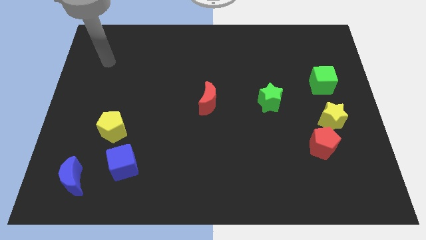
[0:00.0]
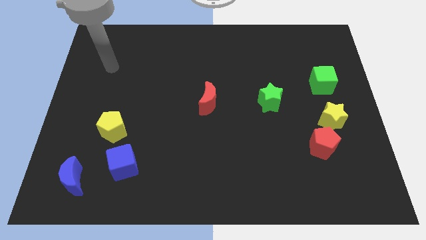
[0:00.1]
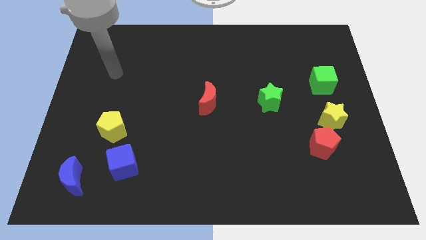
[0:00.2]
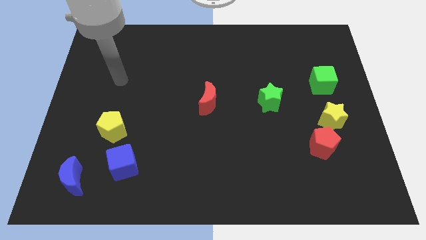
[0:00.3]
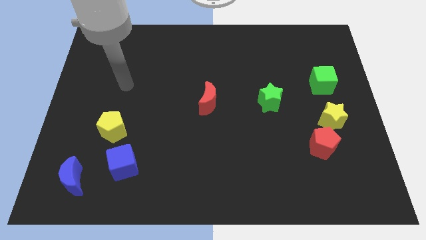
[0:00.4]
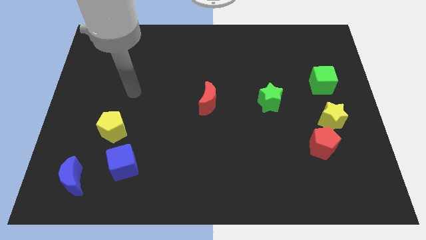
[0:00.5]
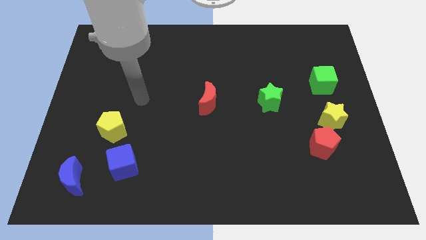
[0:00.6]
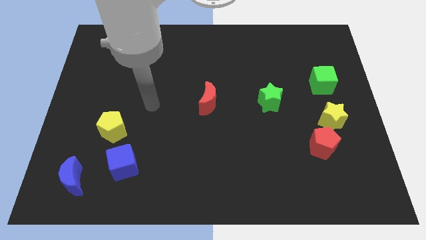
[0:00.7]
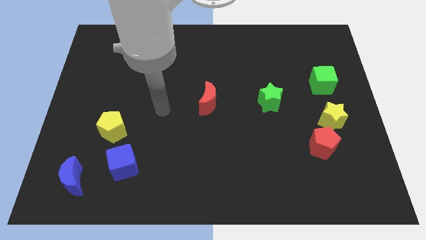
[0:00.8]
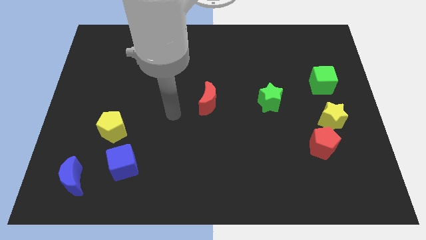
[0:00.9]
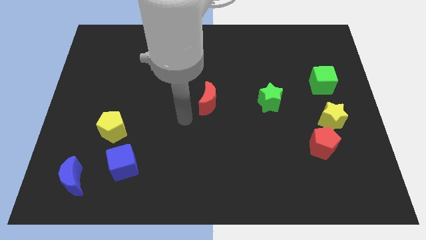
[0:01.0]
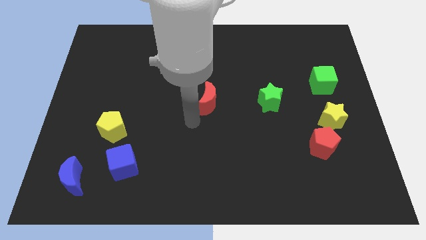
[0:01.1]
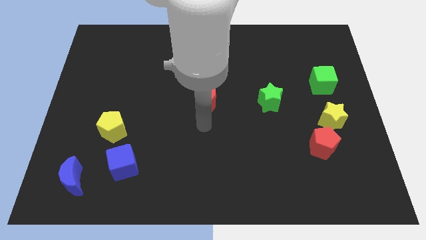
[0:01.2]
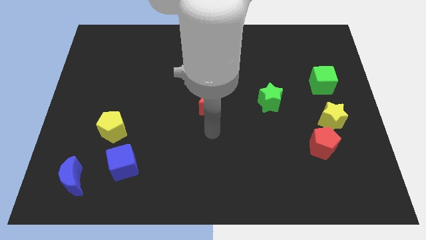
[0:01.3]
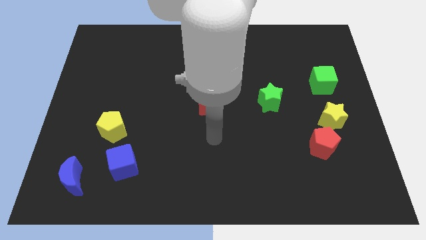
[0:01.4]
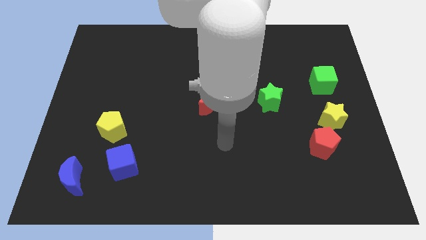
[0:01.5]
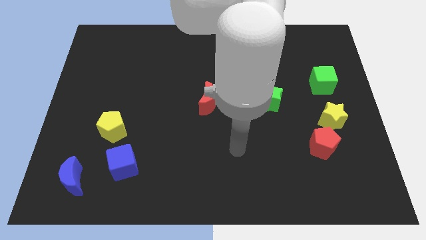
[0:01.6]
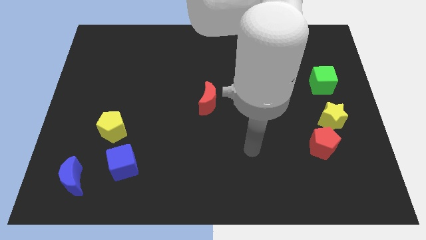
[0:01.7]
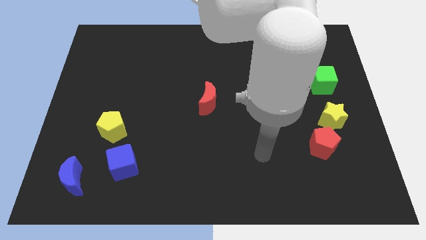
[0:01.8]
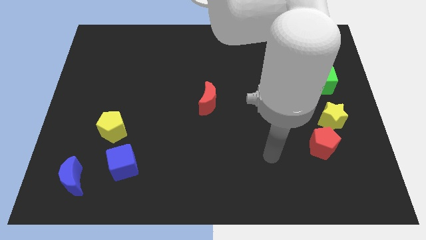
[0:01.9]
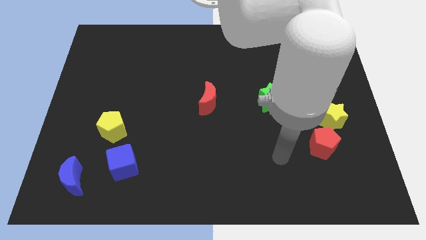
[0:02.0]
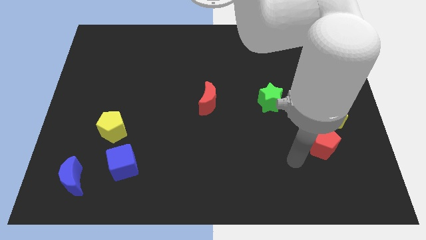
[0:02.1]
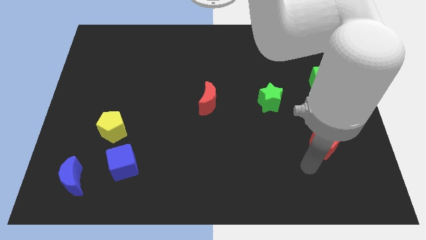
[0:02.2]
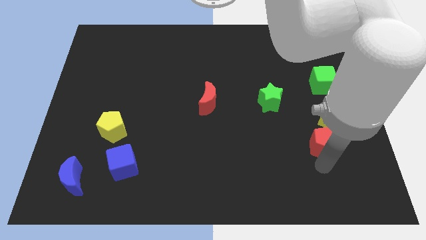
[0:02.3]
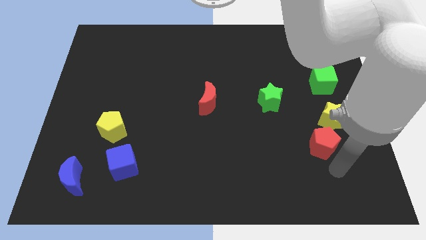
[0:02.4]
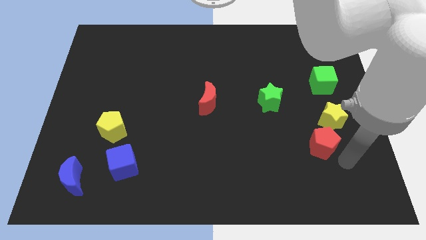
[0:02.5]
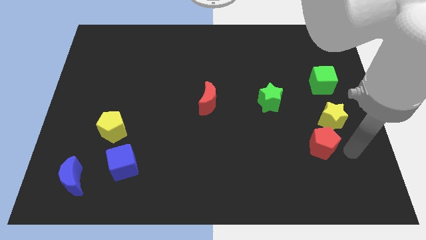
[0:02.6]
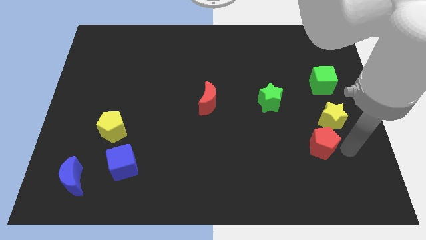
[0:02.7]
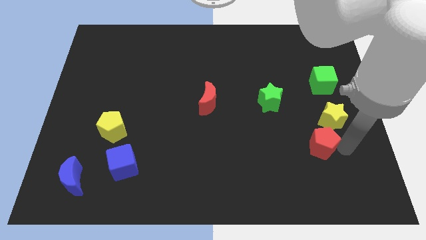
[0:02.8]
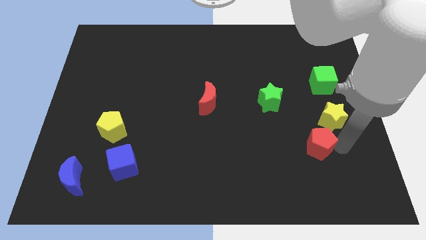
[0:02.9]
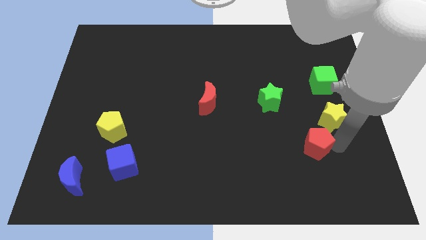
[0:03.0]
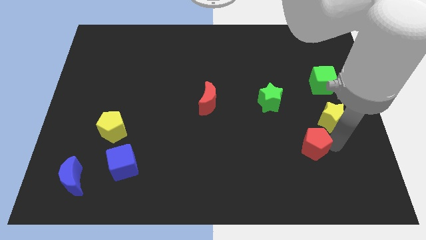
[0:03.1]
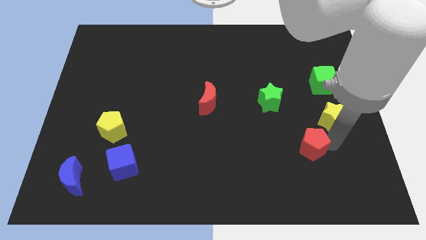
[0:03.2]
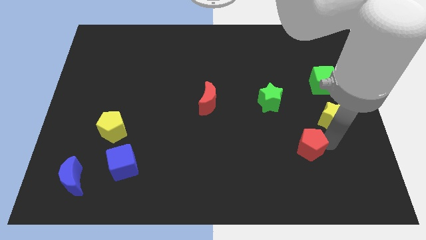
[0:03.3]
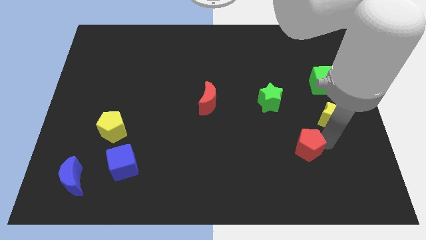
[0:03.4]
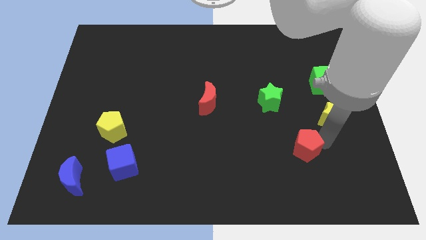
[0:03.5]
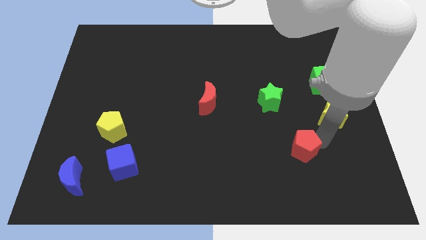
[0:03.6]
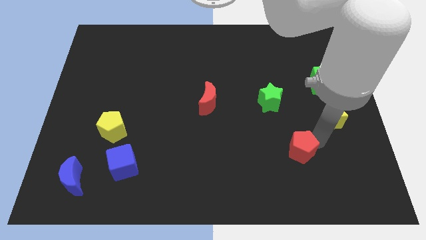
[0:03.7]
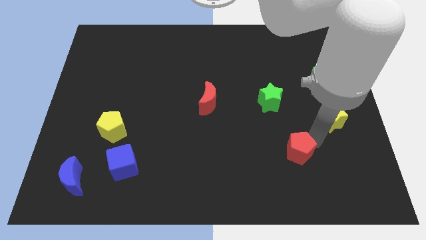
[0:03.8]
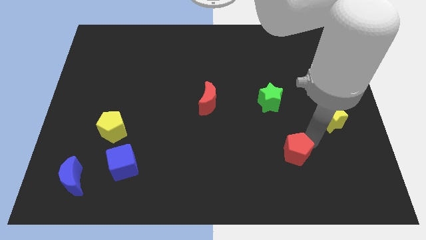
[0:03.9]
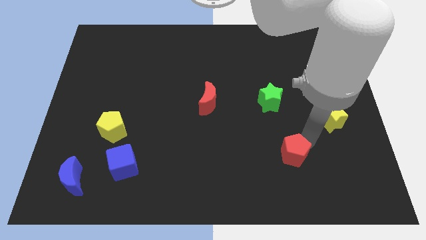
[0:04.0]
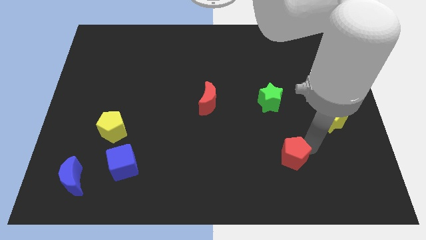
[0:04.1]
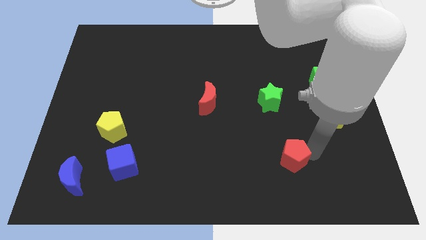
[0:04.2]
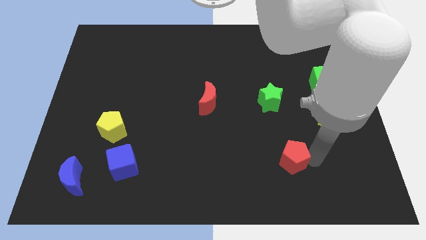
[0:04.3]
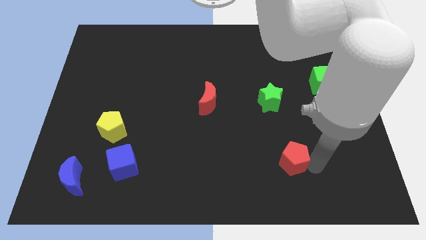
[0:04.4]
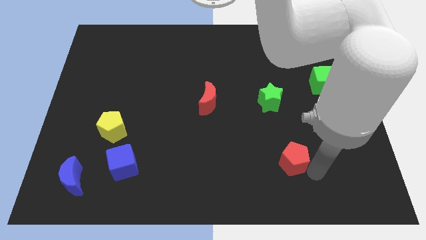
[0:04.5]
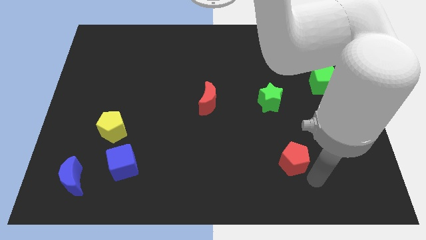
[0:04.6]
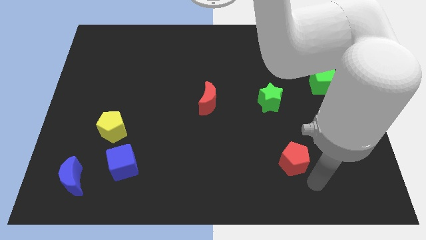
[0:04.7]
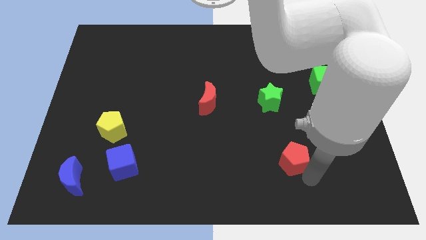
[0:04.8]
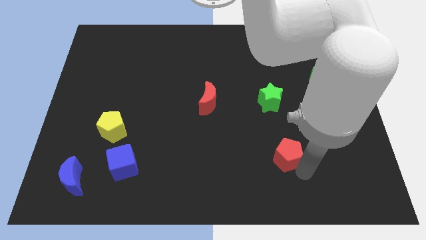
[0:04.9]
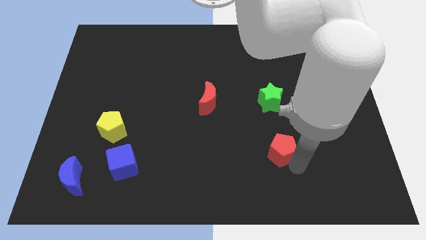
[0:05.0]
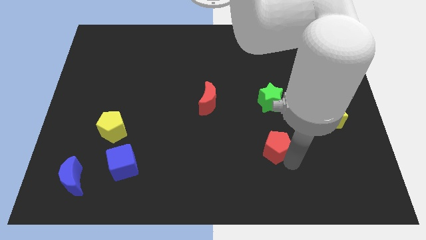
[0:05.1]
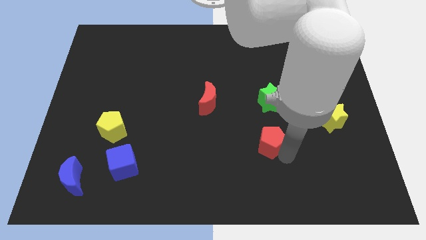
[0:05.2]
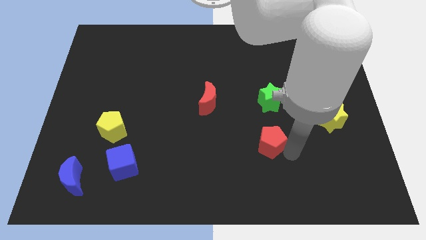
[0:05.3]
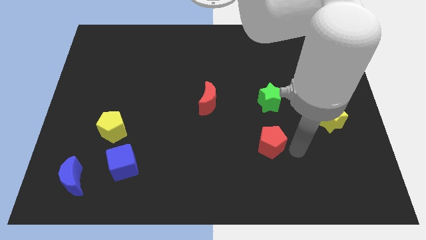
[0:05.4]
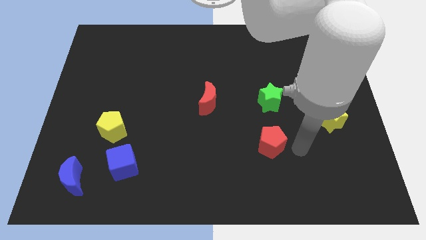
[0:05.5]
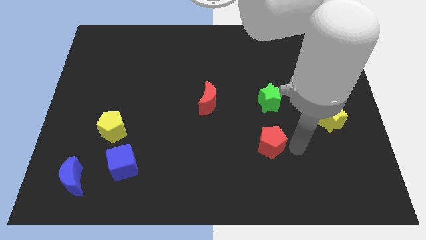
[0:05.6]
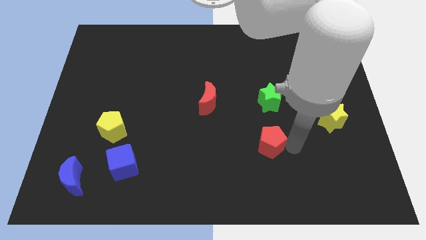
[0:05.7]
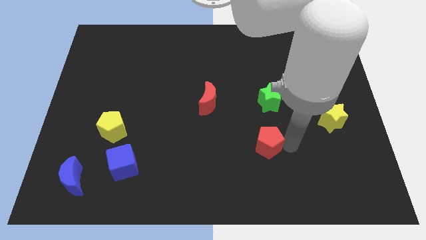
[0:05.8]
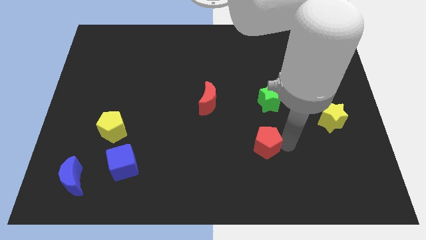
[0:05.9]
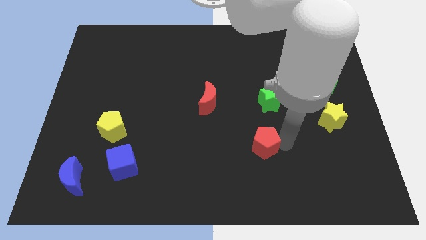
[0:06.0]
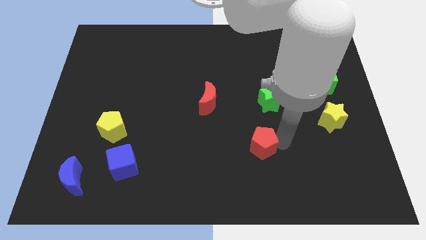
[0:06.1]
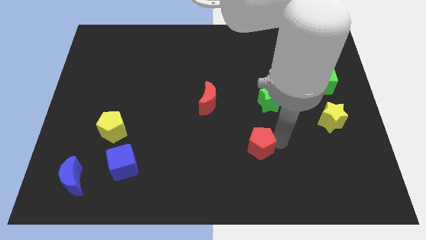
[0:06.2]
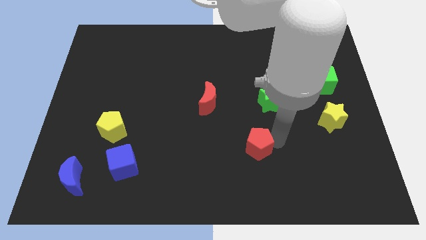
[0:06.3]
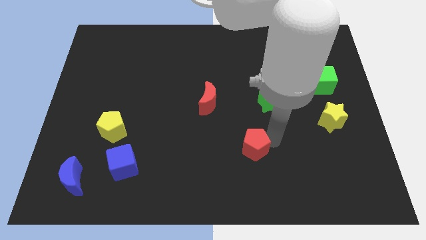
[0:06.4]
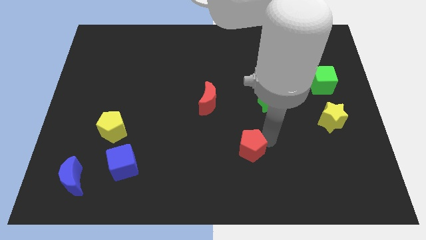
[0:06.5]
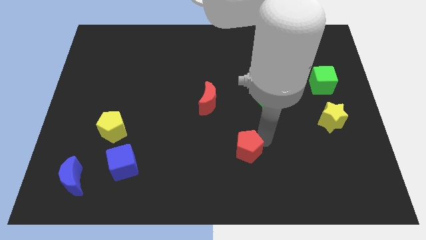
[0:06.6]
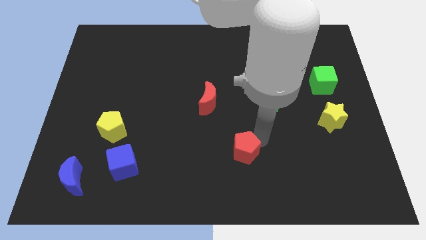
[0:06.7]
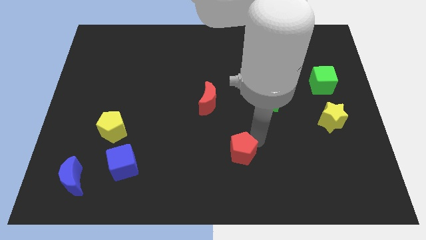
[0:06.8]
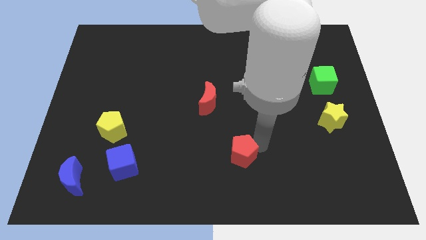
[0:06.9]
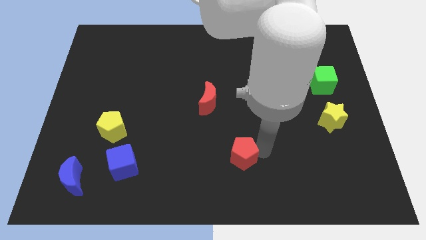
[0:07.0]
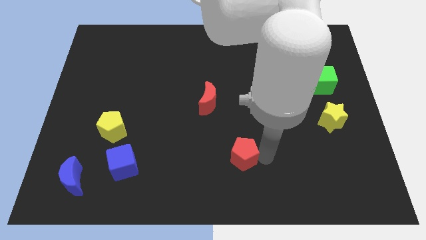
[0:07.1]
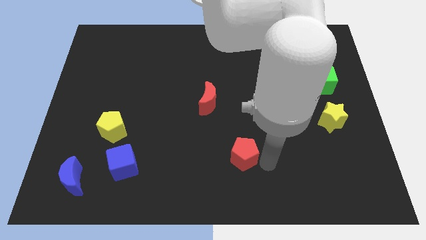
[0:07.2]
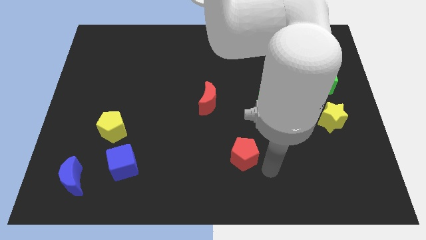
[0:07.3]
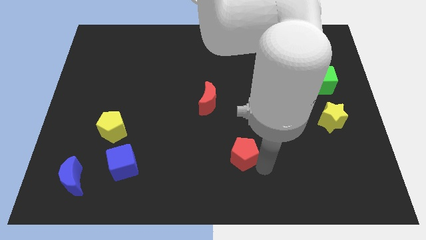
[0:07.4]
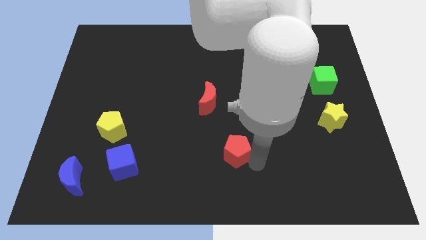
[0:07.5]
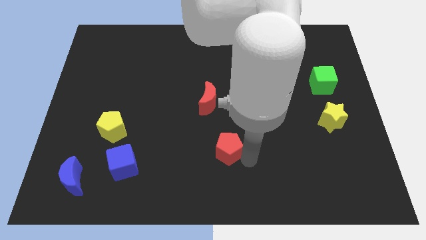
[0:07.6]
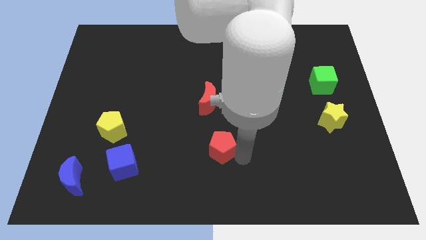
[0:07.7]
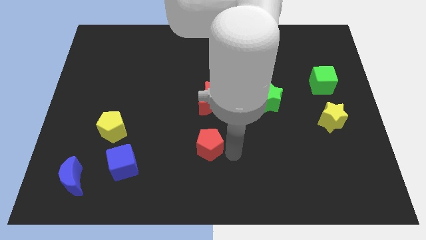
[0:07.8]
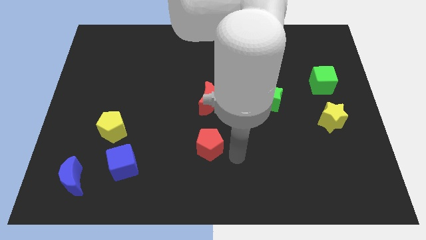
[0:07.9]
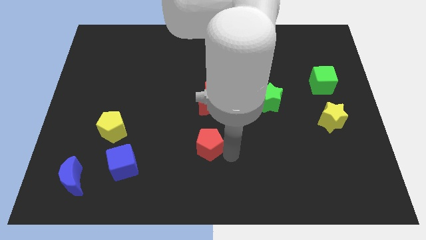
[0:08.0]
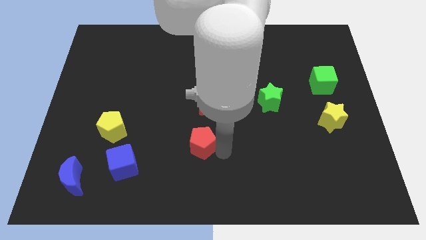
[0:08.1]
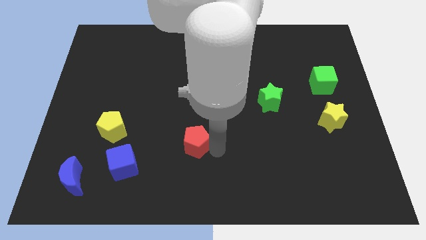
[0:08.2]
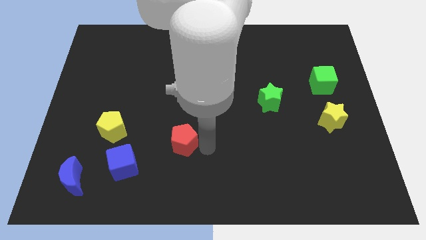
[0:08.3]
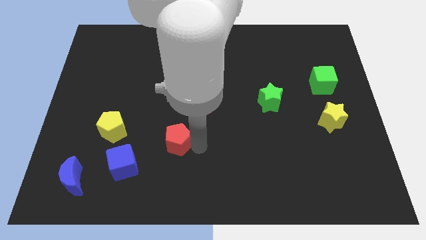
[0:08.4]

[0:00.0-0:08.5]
move the red pentagon to the right of the yellow pentagon
